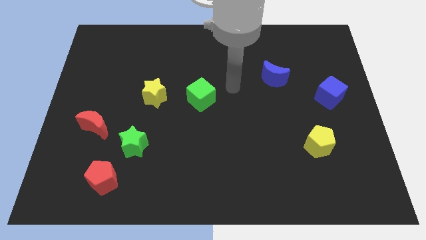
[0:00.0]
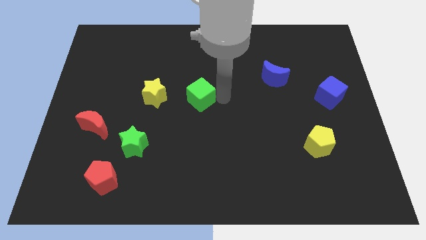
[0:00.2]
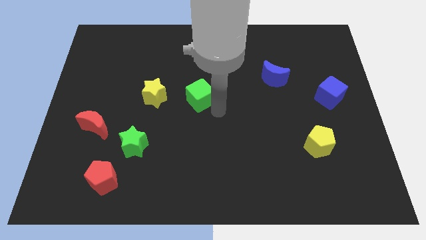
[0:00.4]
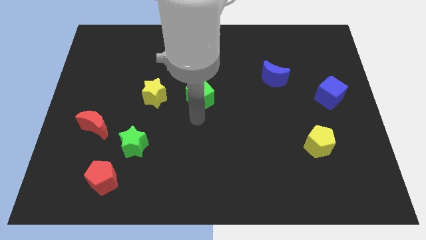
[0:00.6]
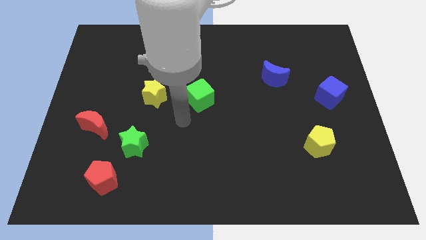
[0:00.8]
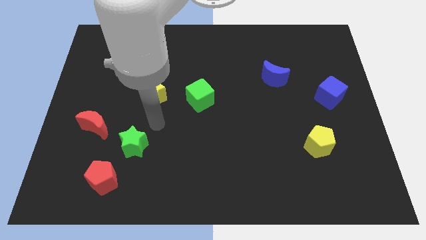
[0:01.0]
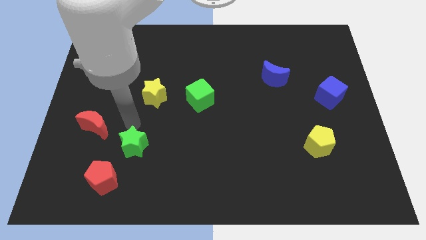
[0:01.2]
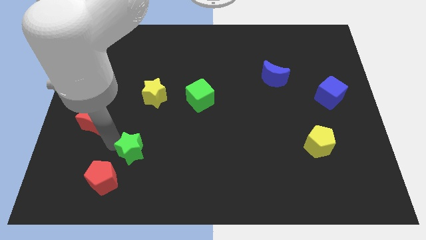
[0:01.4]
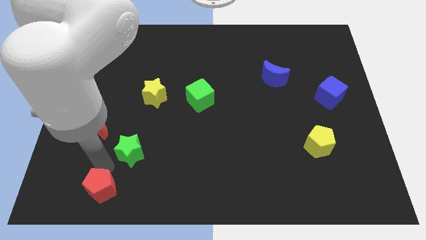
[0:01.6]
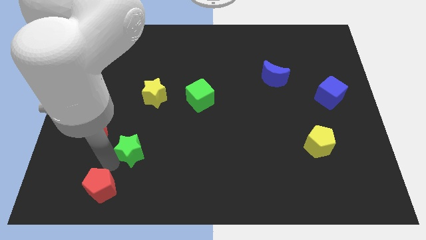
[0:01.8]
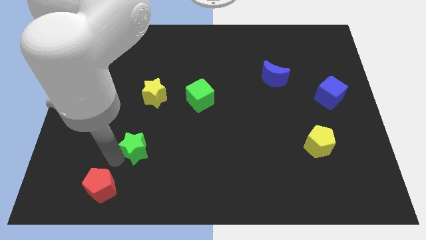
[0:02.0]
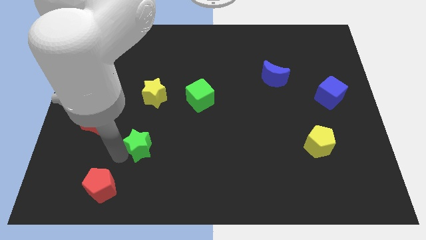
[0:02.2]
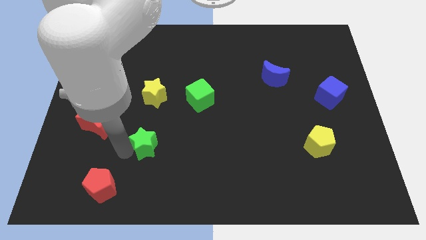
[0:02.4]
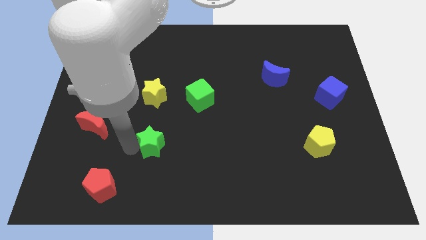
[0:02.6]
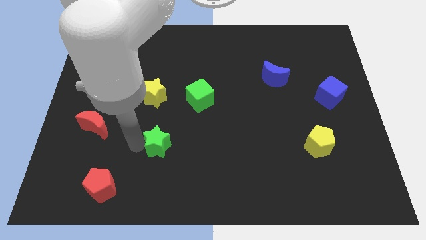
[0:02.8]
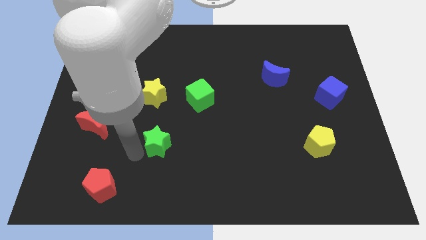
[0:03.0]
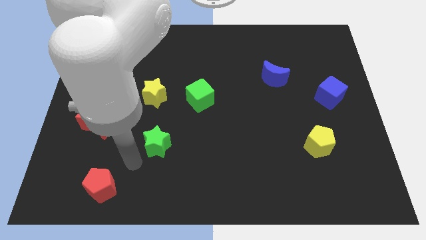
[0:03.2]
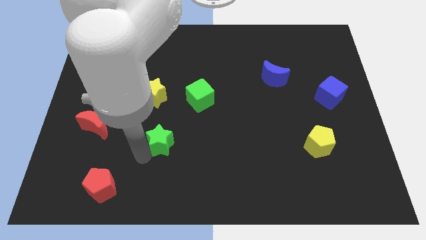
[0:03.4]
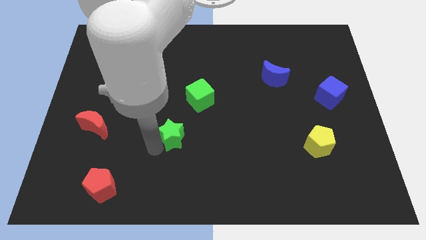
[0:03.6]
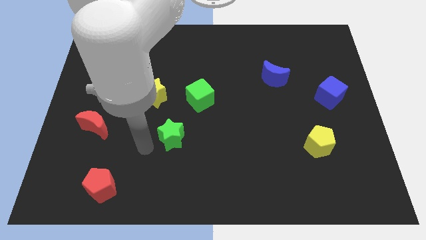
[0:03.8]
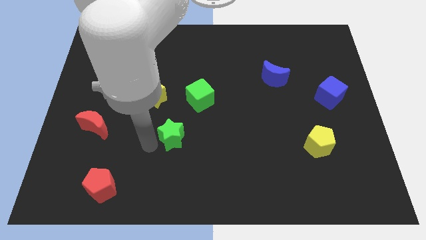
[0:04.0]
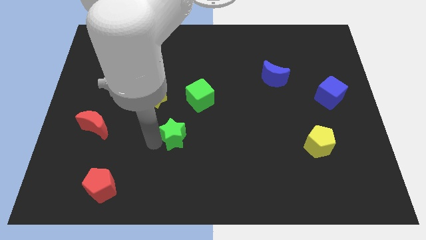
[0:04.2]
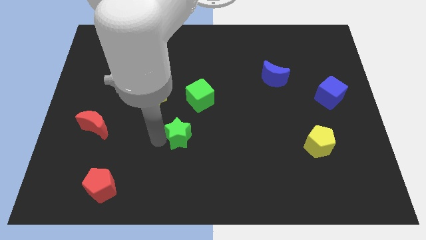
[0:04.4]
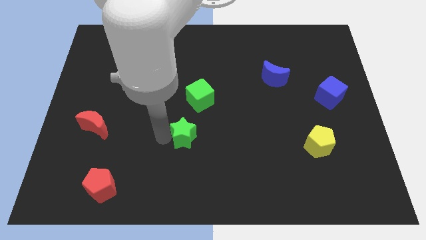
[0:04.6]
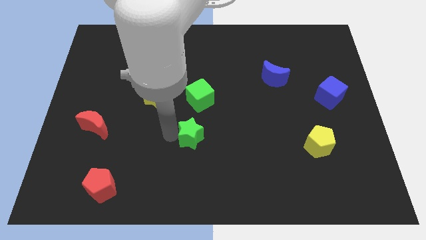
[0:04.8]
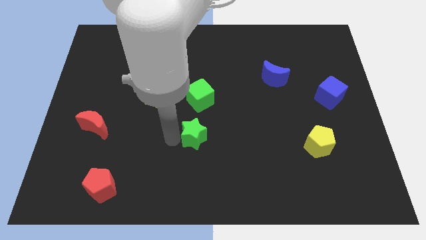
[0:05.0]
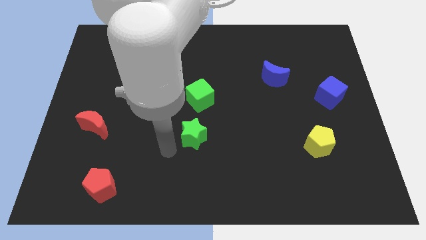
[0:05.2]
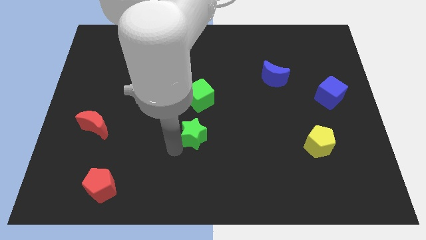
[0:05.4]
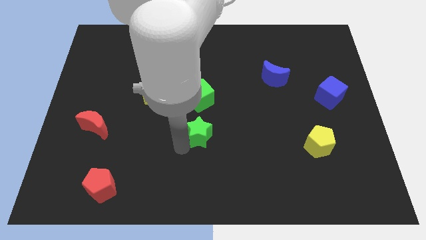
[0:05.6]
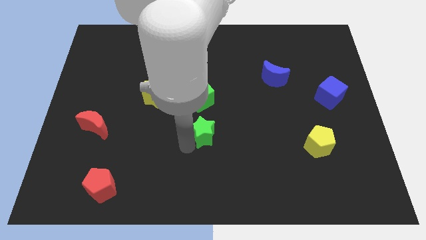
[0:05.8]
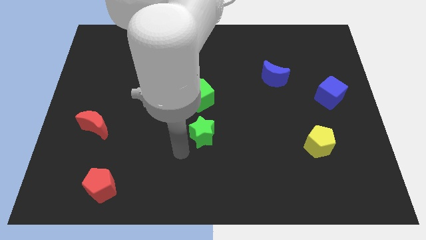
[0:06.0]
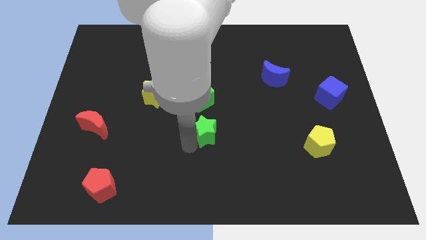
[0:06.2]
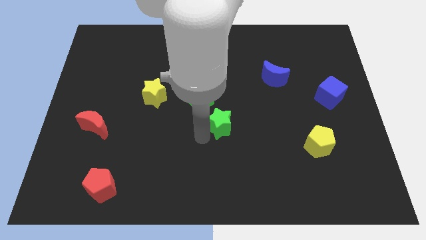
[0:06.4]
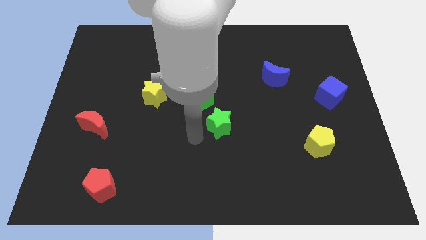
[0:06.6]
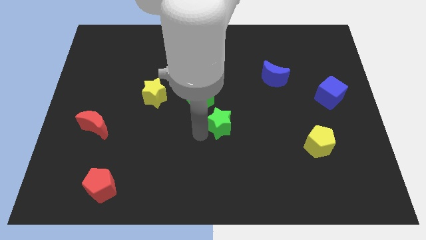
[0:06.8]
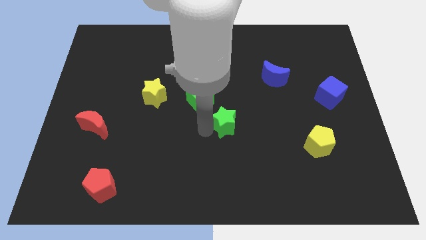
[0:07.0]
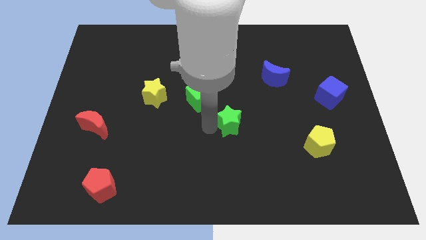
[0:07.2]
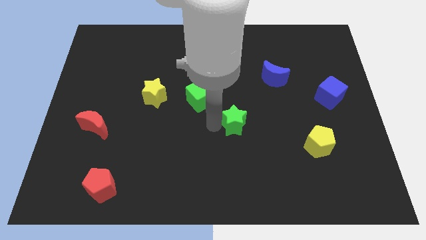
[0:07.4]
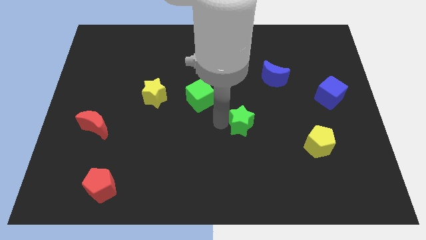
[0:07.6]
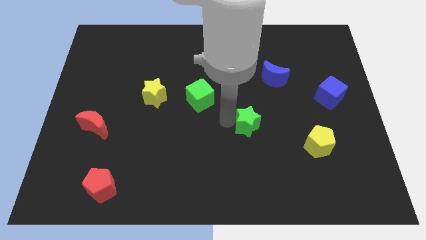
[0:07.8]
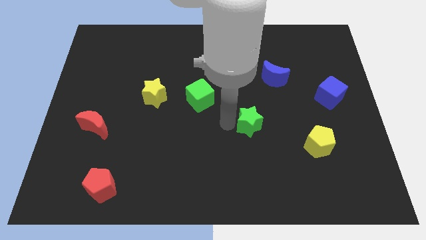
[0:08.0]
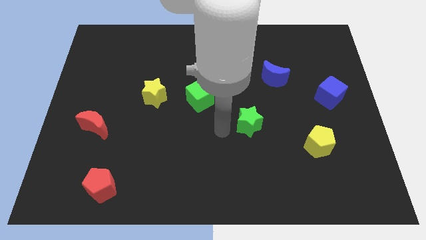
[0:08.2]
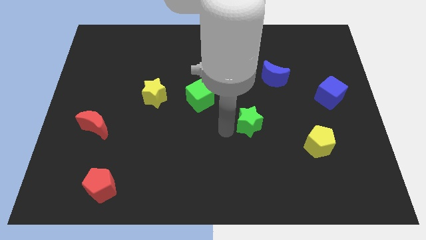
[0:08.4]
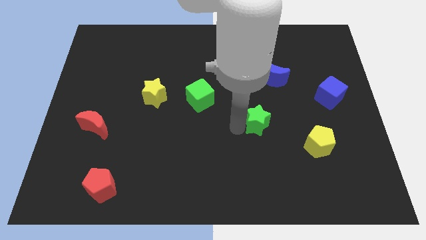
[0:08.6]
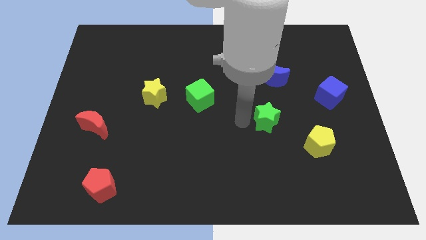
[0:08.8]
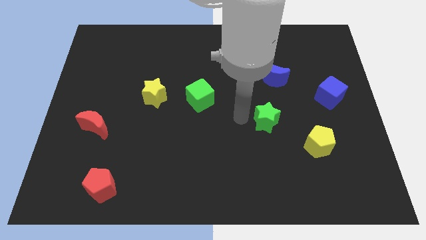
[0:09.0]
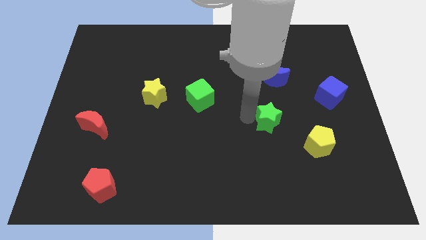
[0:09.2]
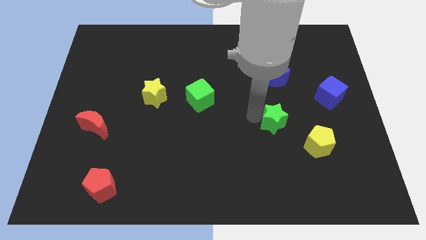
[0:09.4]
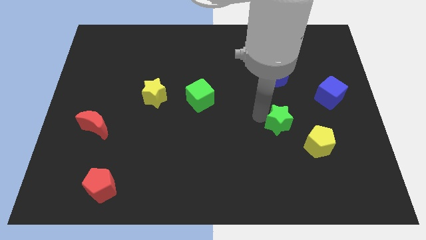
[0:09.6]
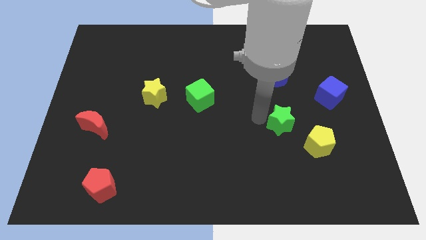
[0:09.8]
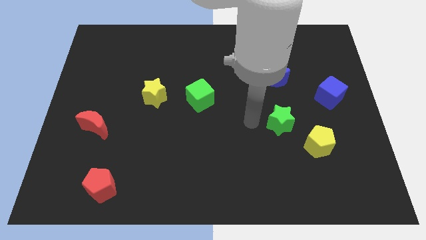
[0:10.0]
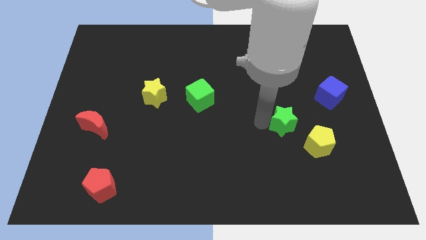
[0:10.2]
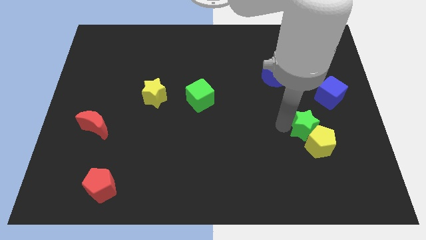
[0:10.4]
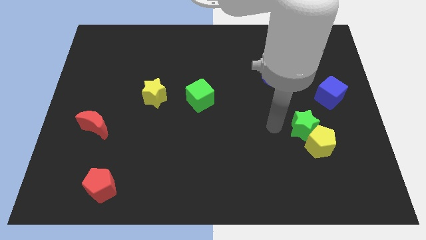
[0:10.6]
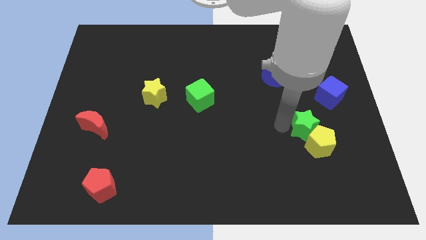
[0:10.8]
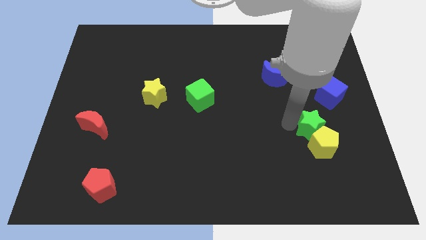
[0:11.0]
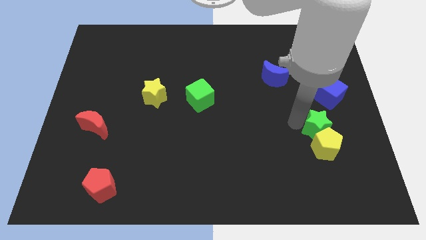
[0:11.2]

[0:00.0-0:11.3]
move the green star below the blue cube

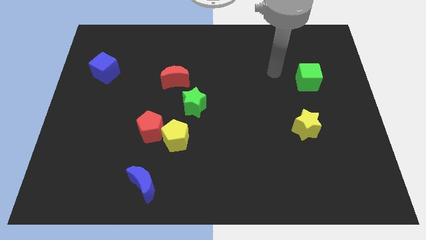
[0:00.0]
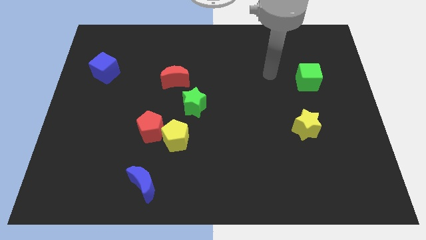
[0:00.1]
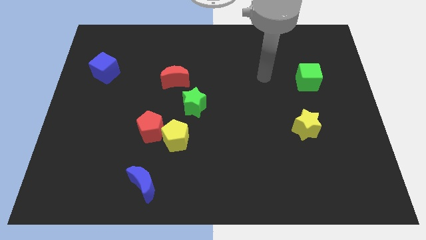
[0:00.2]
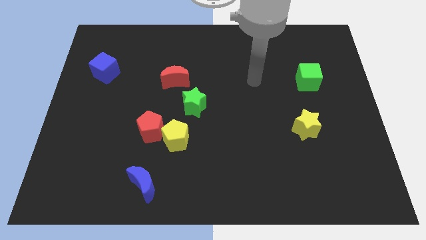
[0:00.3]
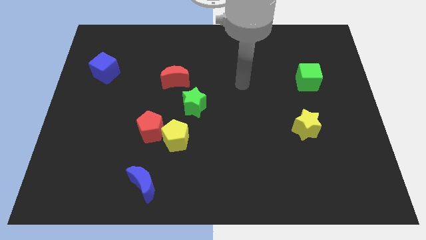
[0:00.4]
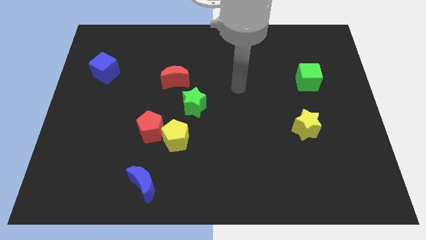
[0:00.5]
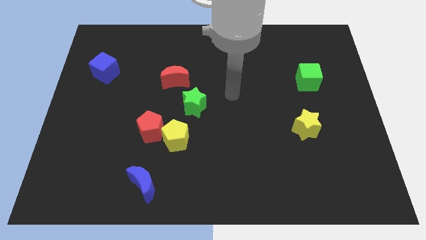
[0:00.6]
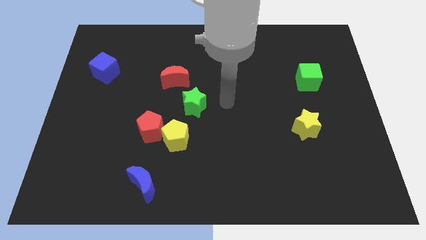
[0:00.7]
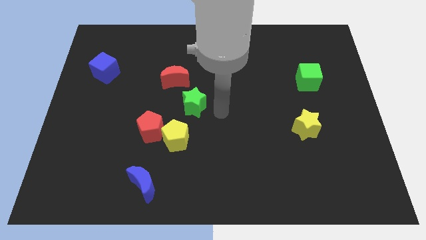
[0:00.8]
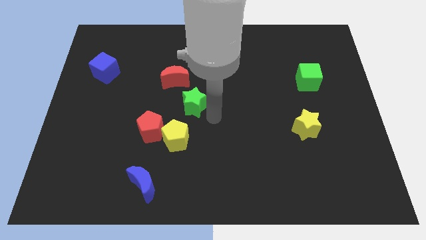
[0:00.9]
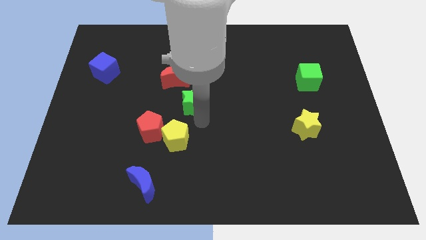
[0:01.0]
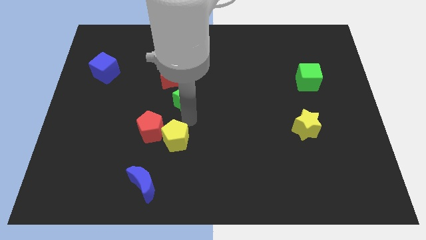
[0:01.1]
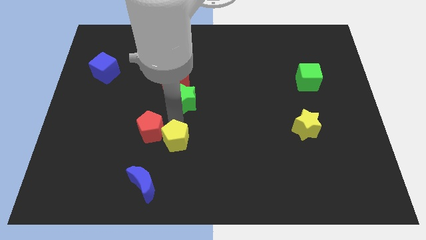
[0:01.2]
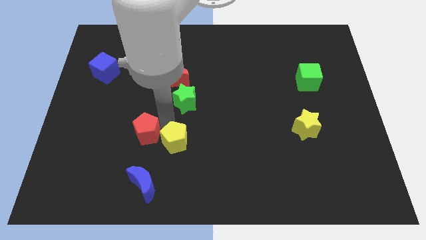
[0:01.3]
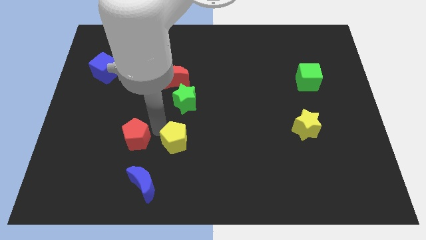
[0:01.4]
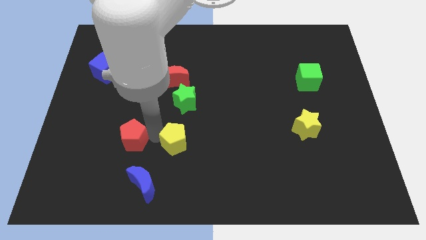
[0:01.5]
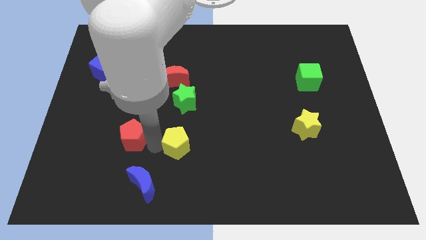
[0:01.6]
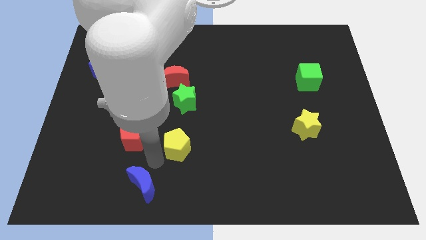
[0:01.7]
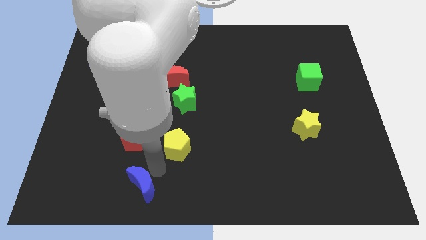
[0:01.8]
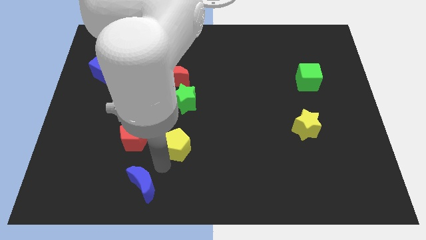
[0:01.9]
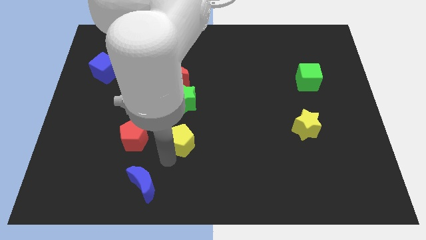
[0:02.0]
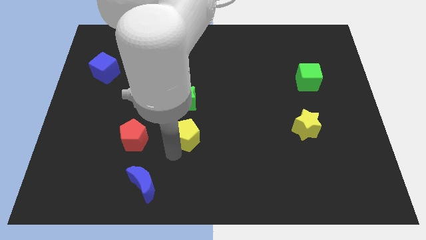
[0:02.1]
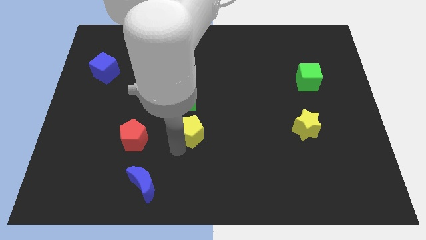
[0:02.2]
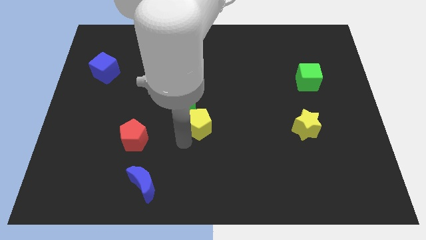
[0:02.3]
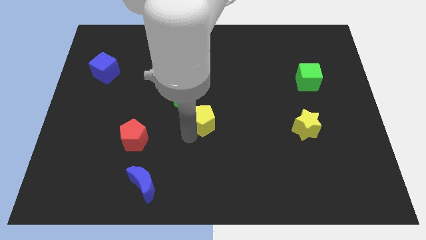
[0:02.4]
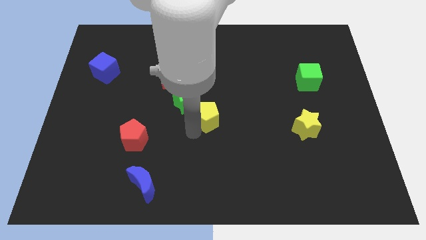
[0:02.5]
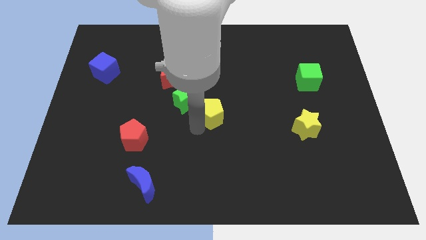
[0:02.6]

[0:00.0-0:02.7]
put the yellow pentagon right of the green star
